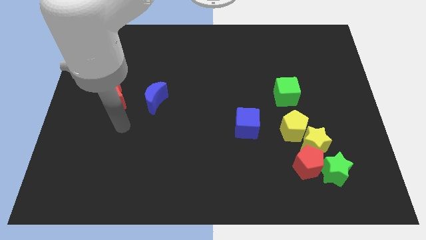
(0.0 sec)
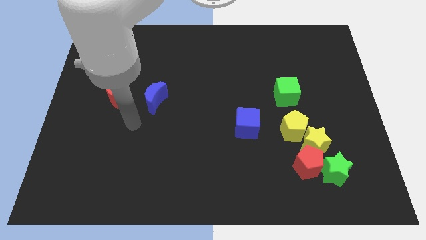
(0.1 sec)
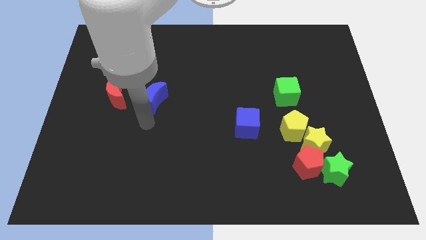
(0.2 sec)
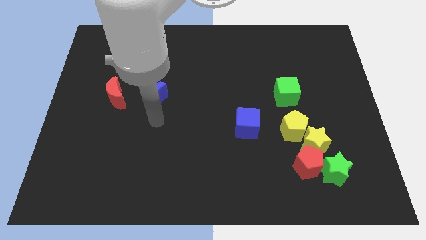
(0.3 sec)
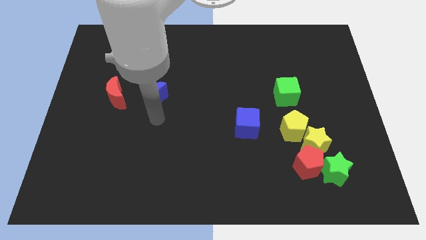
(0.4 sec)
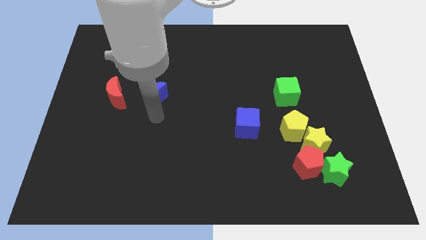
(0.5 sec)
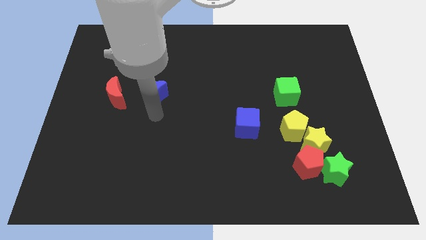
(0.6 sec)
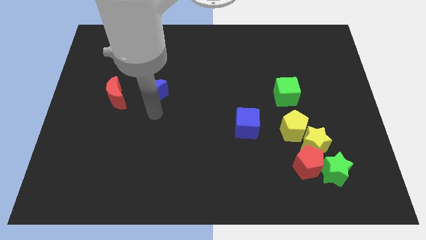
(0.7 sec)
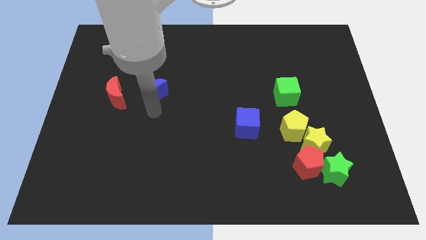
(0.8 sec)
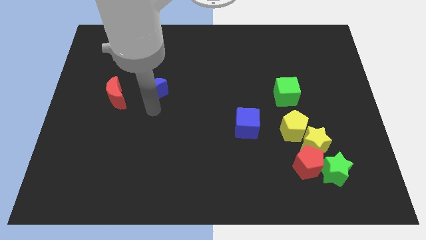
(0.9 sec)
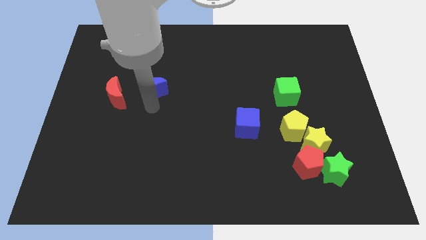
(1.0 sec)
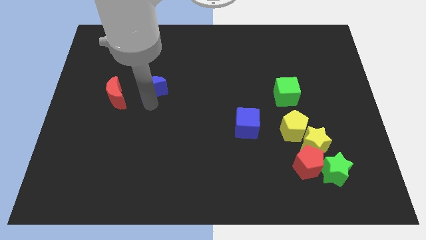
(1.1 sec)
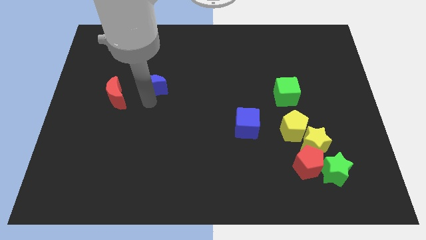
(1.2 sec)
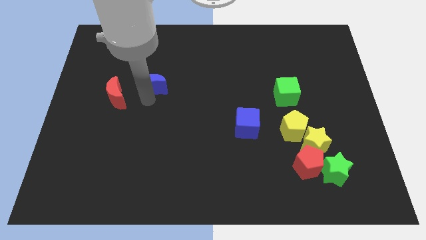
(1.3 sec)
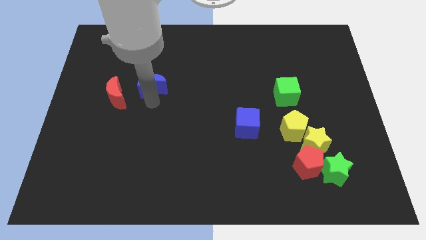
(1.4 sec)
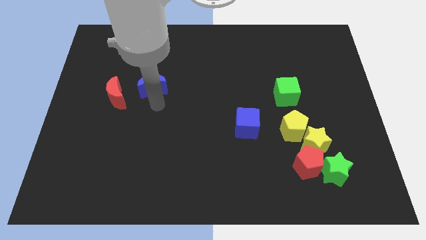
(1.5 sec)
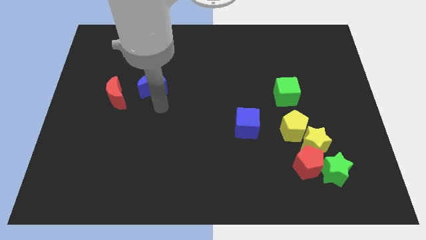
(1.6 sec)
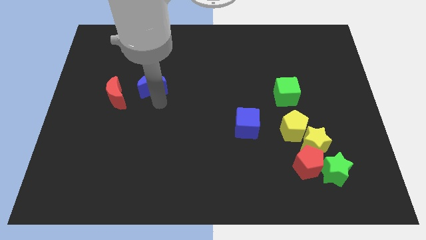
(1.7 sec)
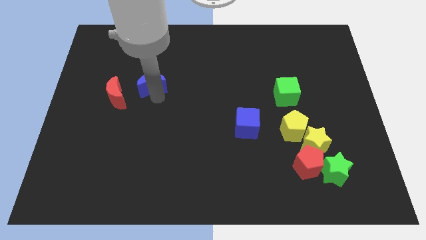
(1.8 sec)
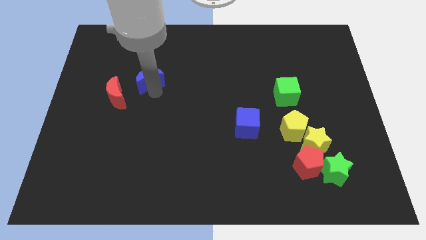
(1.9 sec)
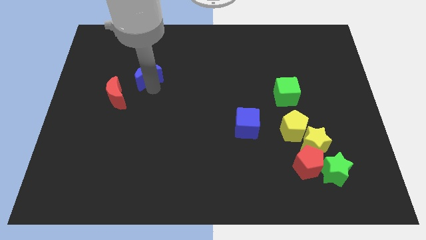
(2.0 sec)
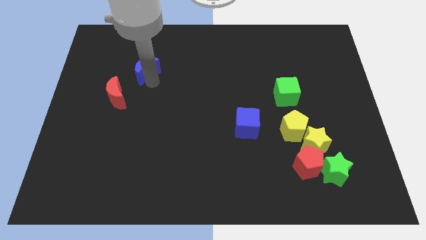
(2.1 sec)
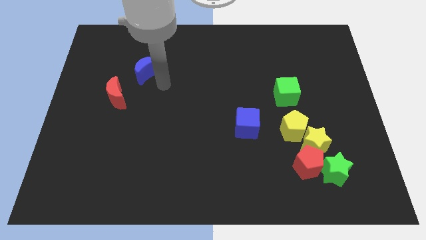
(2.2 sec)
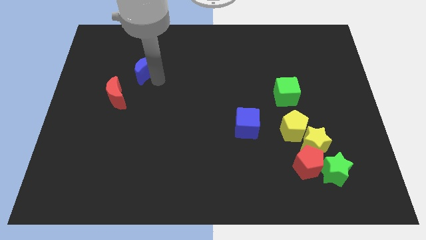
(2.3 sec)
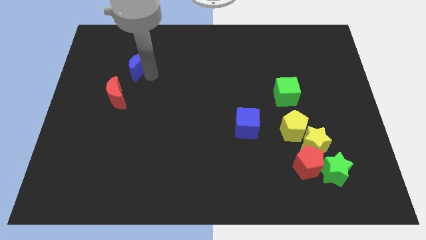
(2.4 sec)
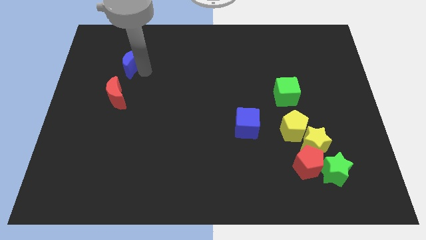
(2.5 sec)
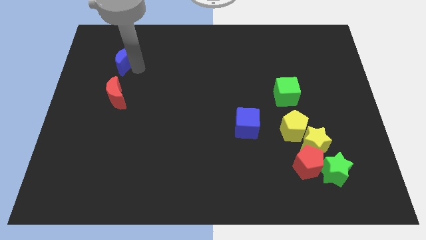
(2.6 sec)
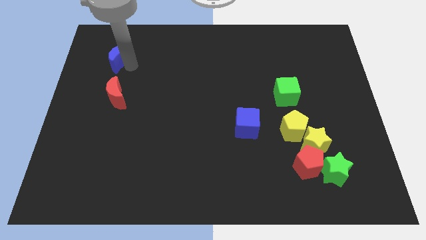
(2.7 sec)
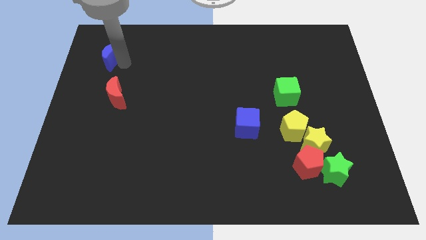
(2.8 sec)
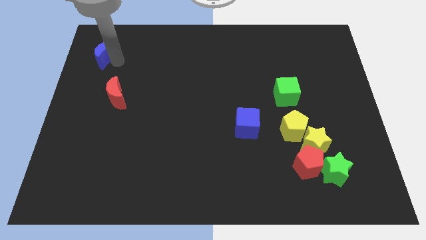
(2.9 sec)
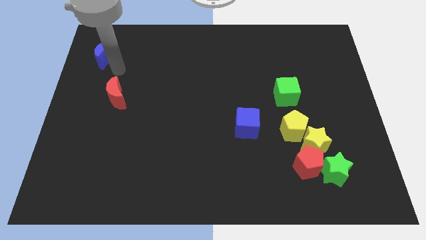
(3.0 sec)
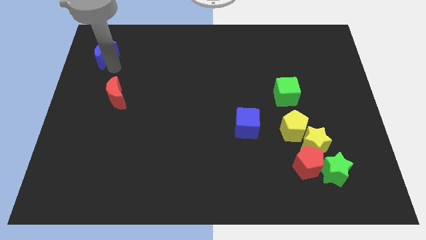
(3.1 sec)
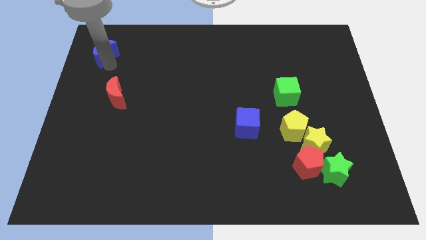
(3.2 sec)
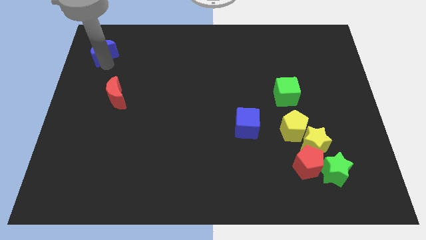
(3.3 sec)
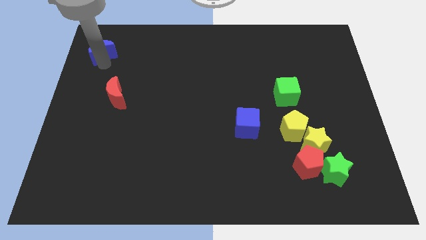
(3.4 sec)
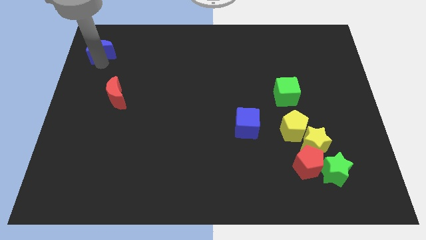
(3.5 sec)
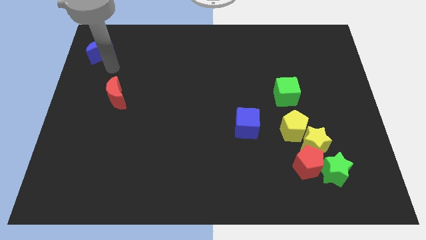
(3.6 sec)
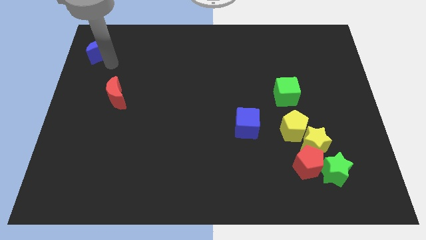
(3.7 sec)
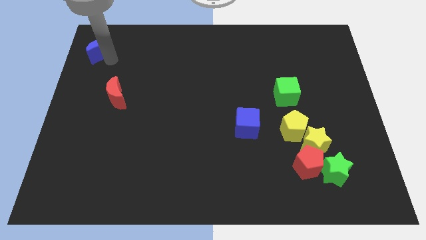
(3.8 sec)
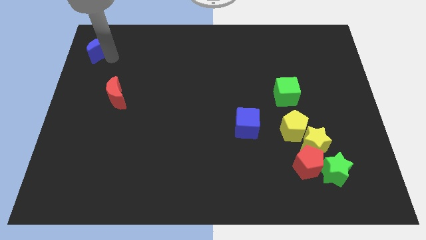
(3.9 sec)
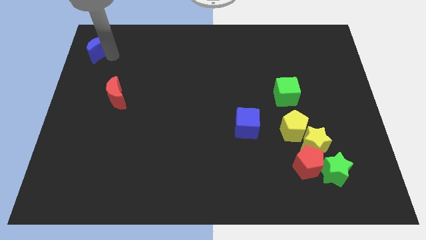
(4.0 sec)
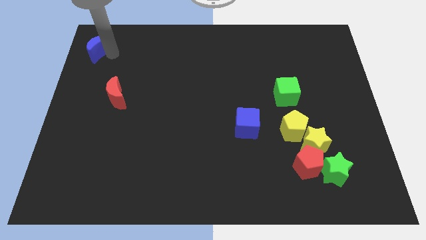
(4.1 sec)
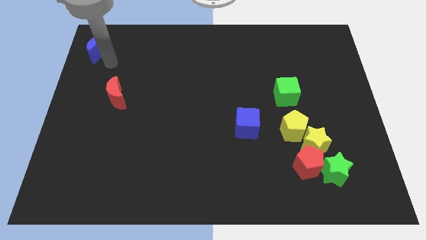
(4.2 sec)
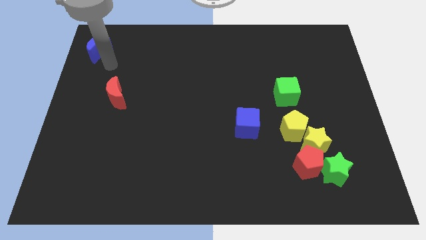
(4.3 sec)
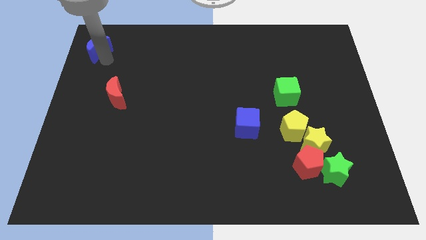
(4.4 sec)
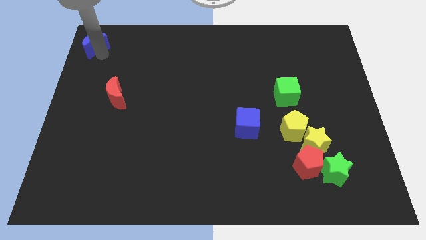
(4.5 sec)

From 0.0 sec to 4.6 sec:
push the blue moon to the top left of the board

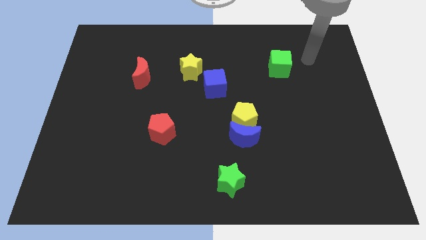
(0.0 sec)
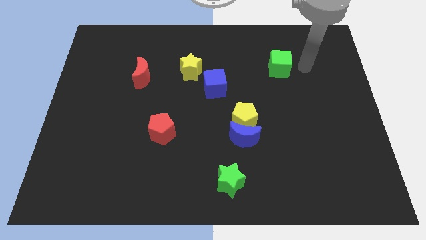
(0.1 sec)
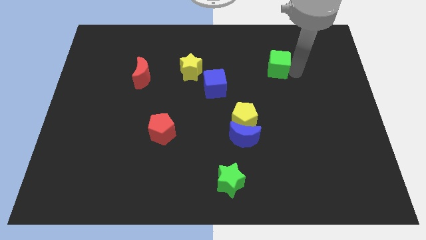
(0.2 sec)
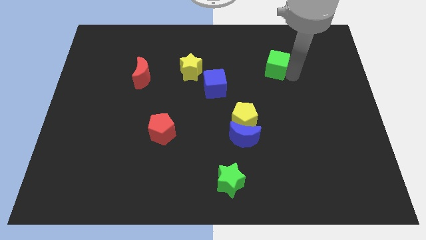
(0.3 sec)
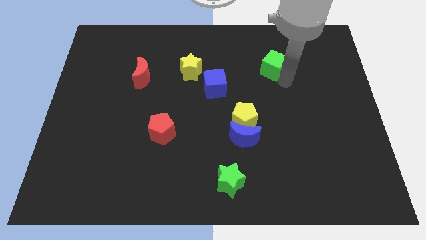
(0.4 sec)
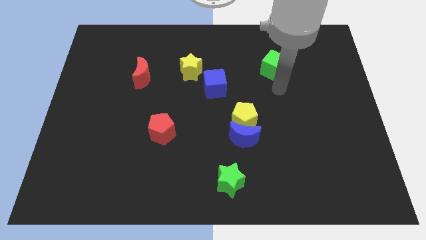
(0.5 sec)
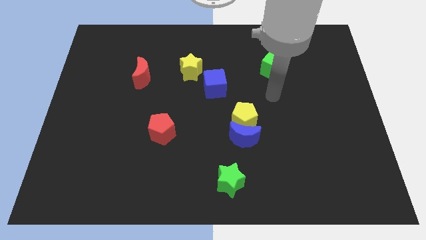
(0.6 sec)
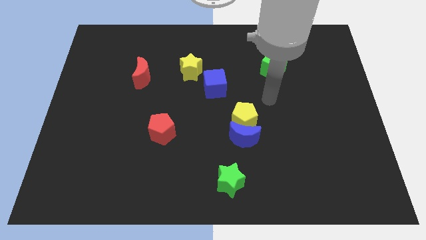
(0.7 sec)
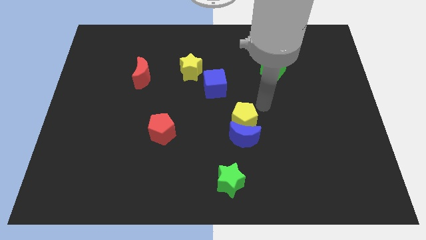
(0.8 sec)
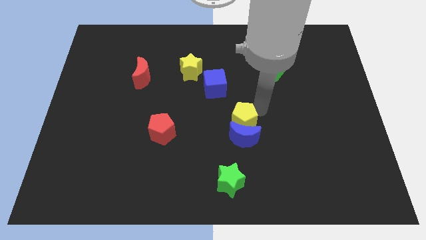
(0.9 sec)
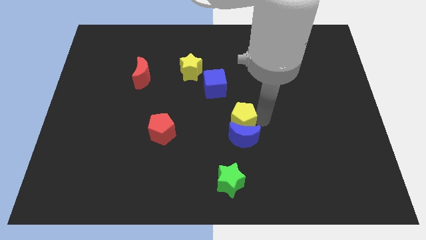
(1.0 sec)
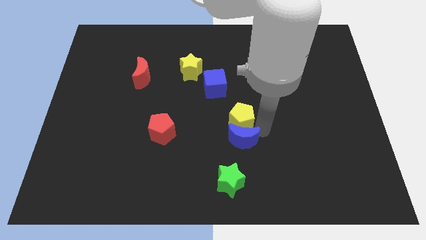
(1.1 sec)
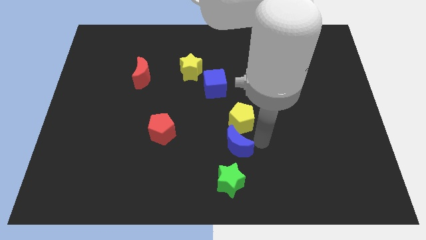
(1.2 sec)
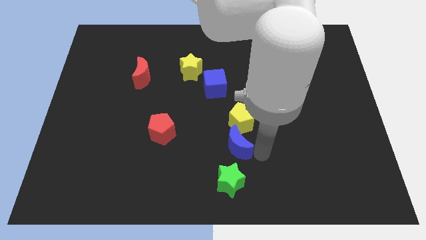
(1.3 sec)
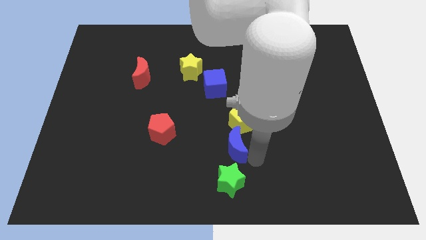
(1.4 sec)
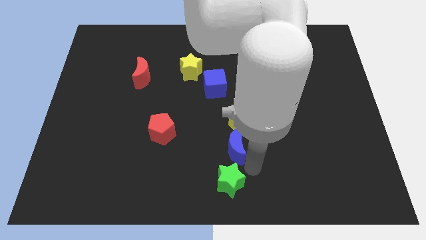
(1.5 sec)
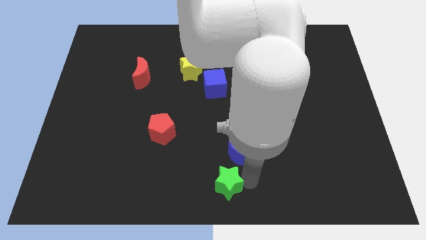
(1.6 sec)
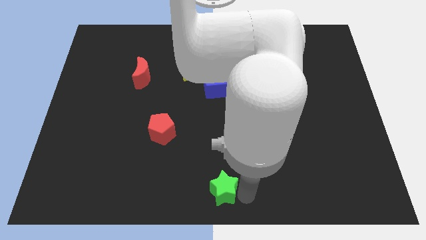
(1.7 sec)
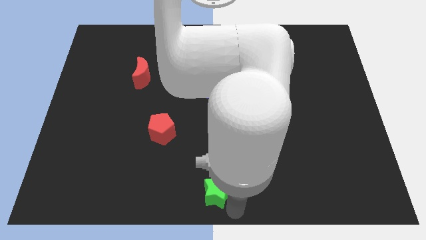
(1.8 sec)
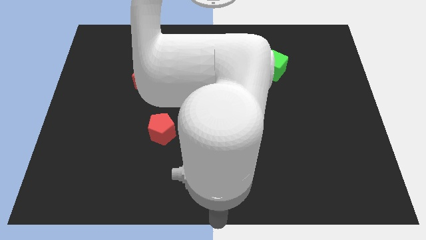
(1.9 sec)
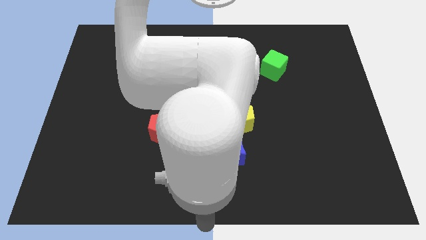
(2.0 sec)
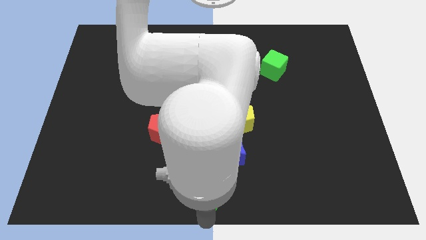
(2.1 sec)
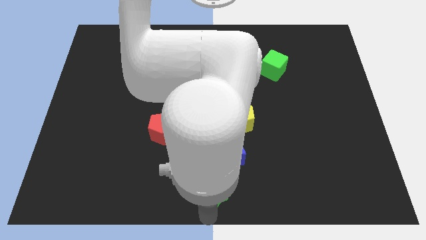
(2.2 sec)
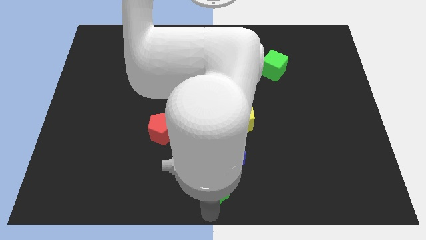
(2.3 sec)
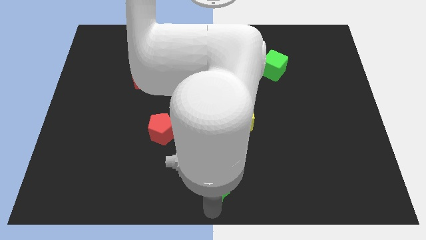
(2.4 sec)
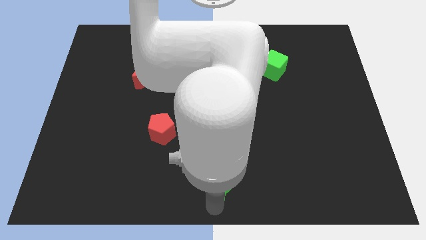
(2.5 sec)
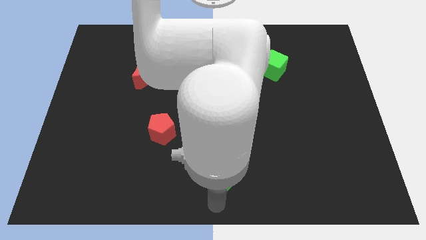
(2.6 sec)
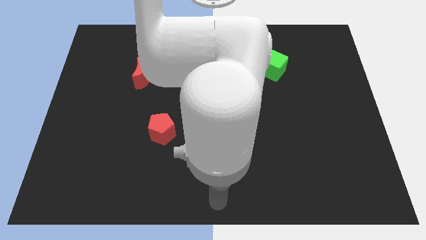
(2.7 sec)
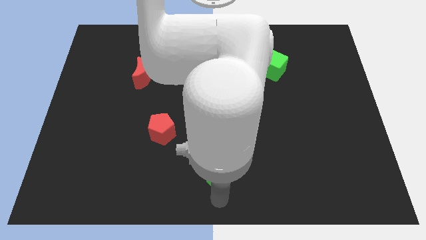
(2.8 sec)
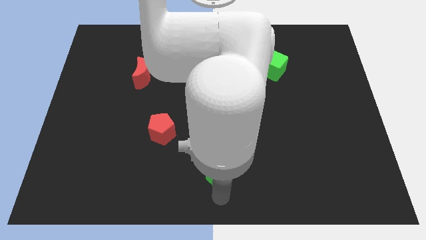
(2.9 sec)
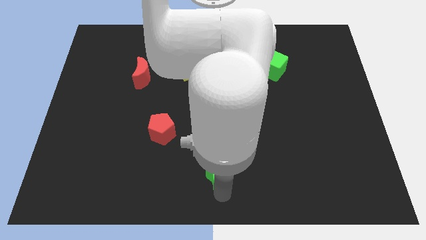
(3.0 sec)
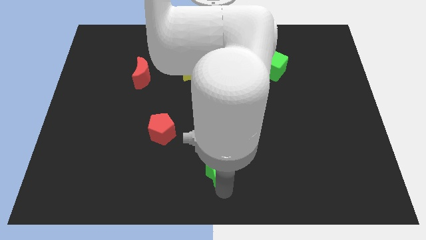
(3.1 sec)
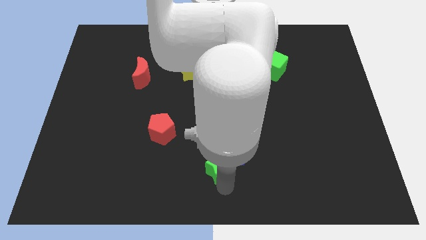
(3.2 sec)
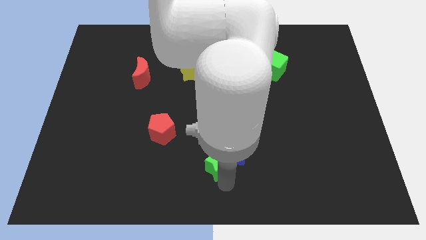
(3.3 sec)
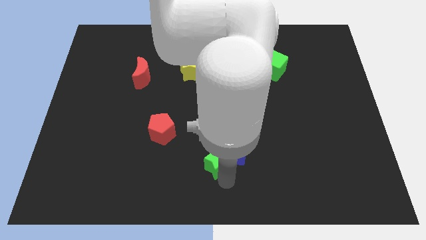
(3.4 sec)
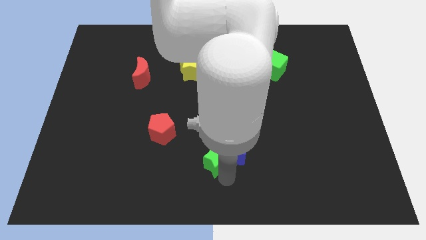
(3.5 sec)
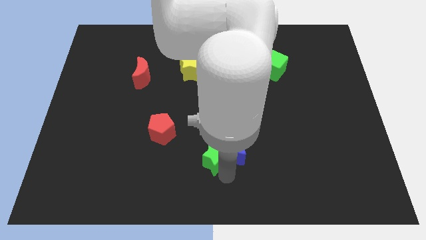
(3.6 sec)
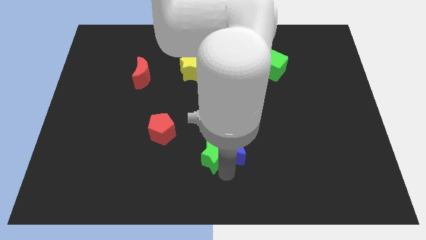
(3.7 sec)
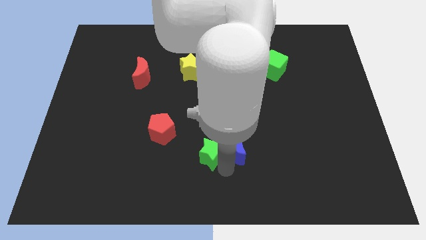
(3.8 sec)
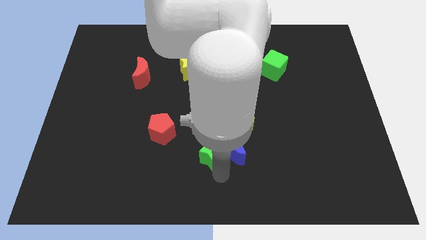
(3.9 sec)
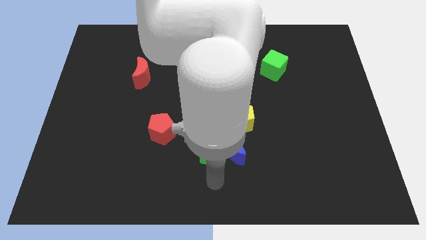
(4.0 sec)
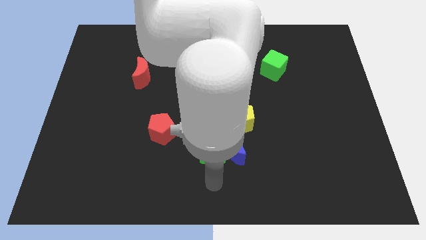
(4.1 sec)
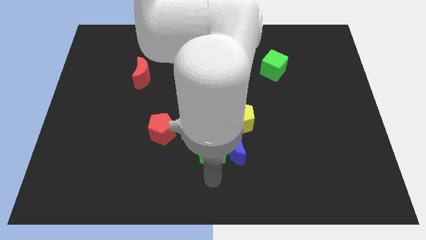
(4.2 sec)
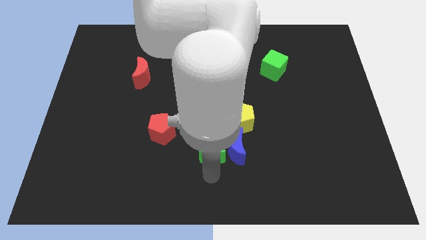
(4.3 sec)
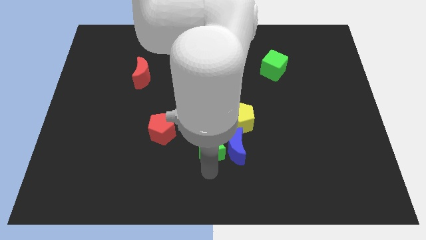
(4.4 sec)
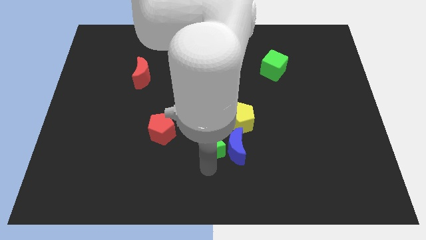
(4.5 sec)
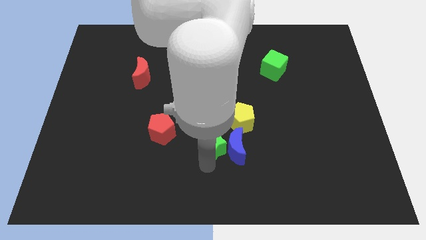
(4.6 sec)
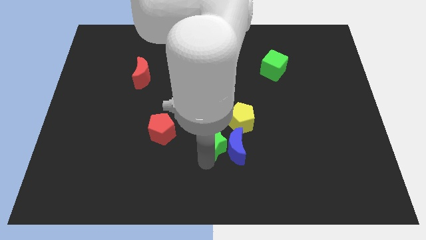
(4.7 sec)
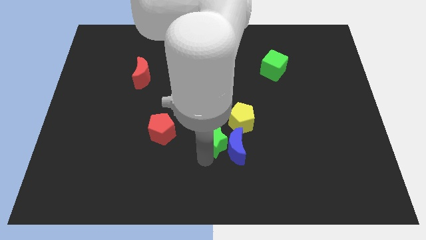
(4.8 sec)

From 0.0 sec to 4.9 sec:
put the green star to the center of the board
